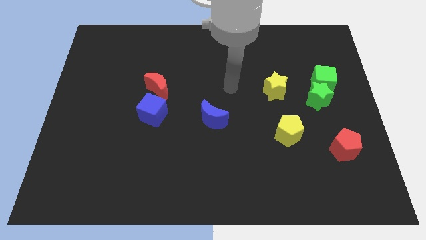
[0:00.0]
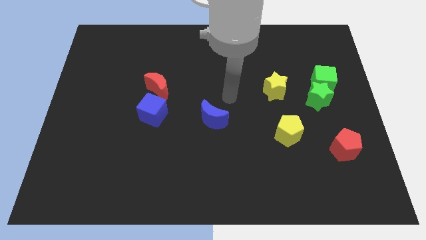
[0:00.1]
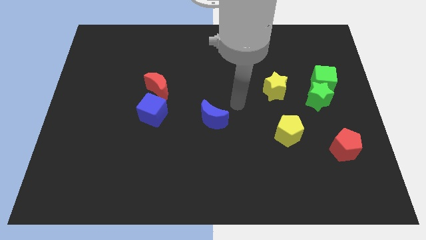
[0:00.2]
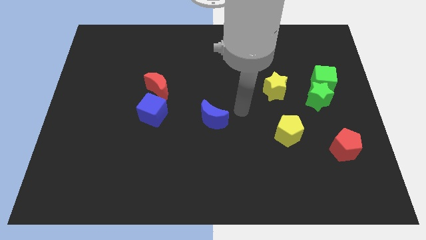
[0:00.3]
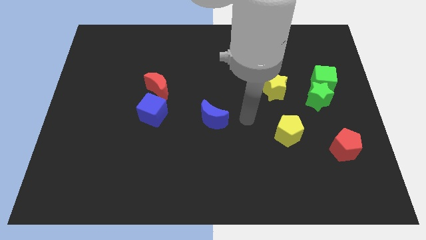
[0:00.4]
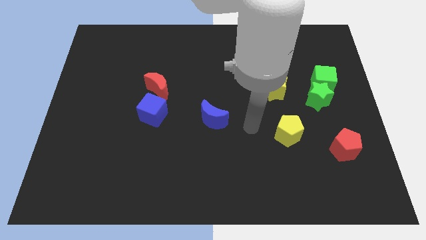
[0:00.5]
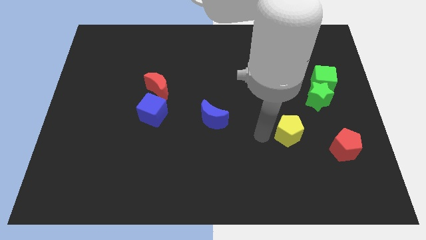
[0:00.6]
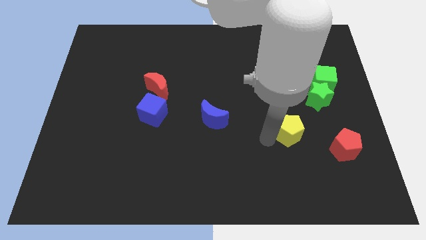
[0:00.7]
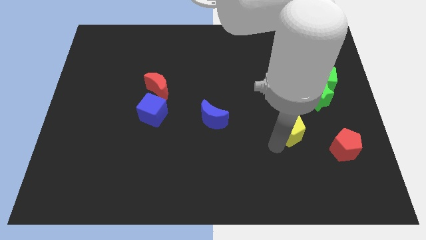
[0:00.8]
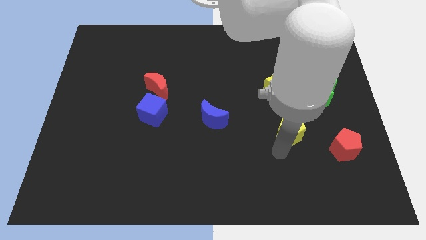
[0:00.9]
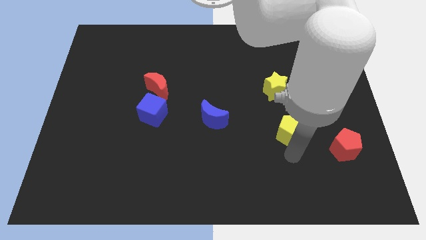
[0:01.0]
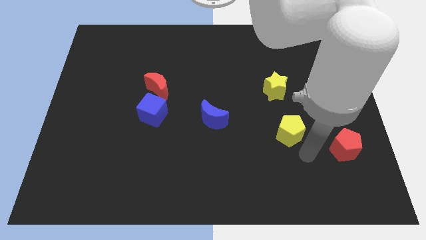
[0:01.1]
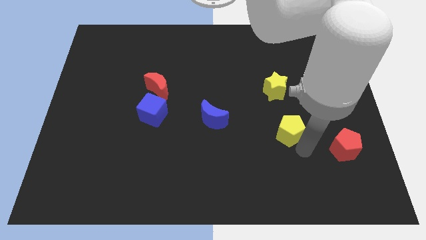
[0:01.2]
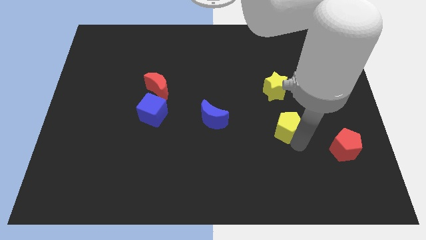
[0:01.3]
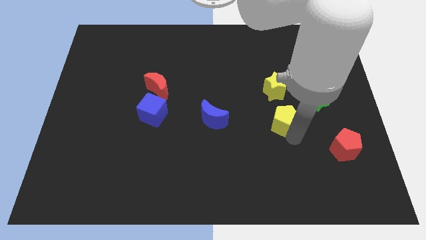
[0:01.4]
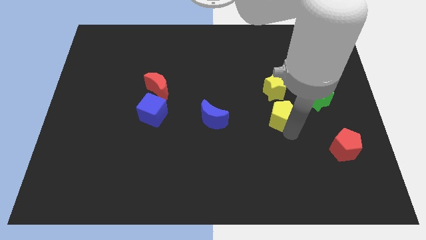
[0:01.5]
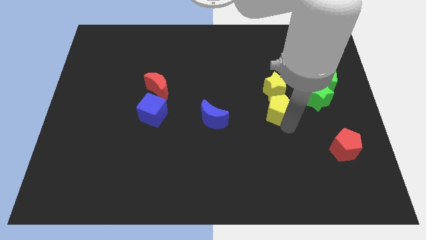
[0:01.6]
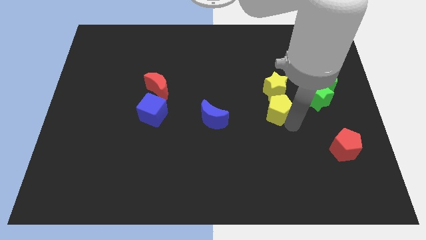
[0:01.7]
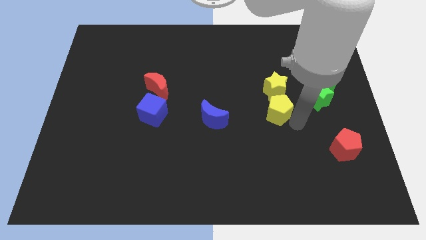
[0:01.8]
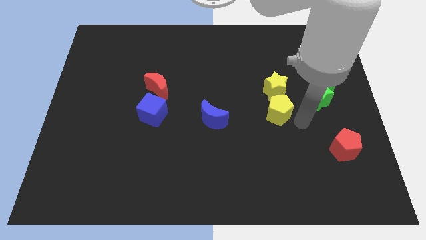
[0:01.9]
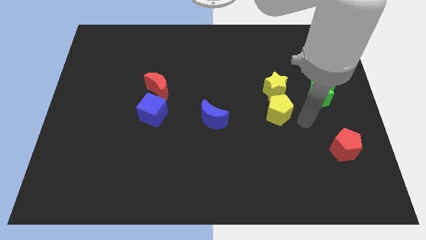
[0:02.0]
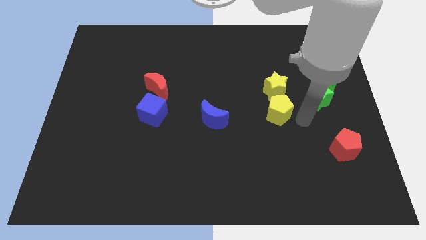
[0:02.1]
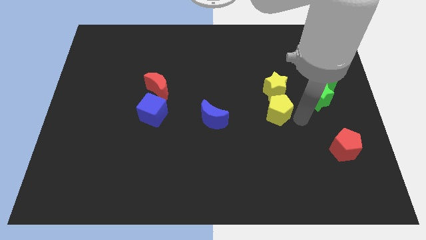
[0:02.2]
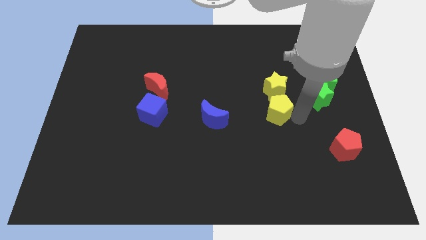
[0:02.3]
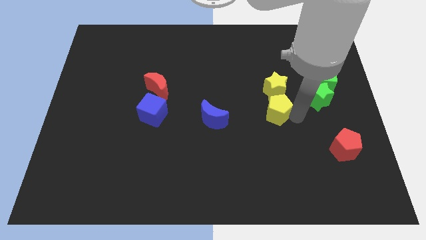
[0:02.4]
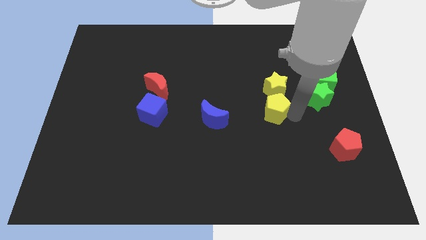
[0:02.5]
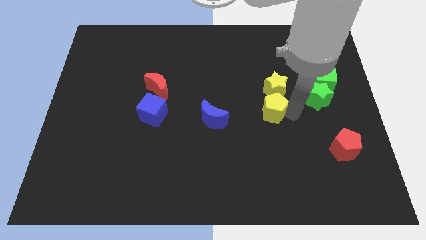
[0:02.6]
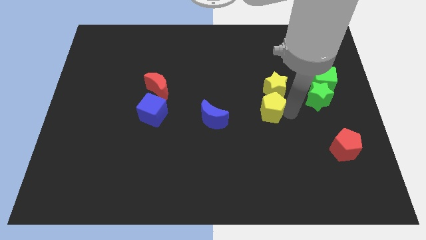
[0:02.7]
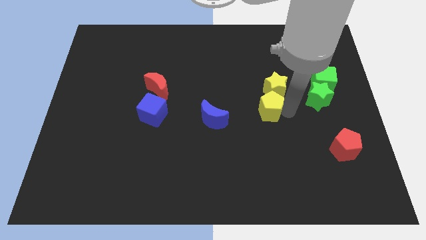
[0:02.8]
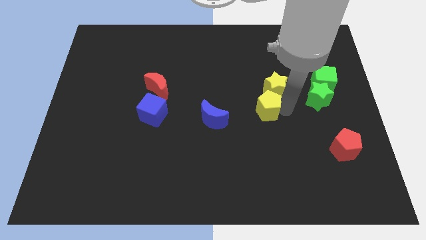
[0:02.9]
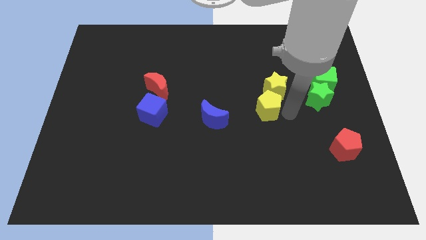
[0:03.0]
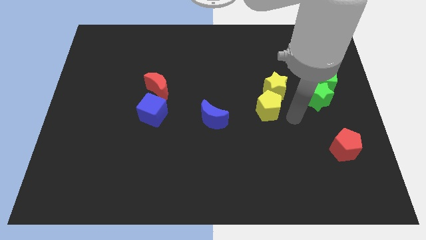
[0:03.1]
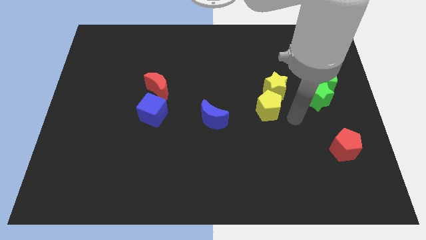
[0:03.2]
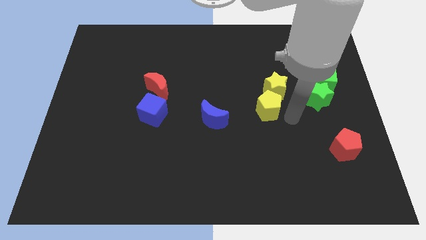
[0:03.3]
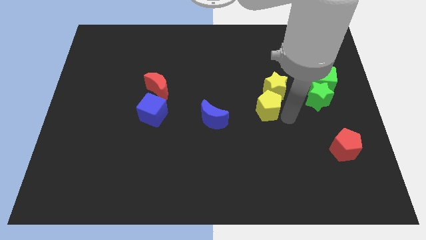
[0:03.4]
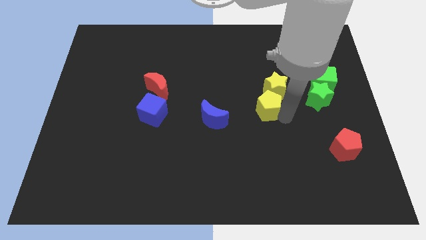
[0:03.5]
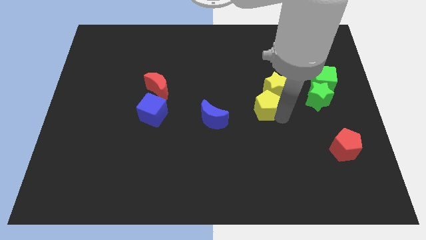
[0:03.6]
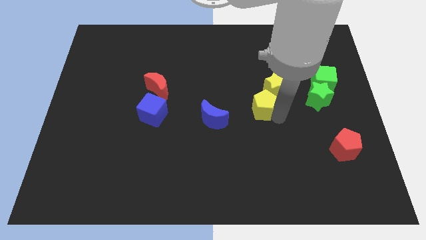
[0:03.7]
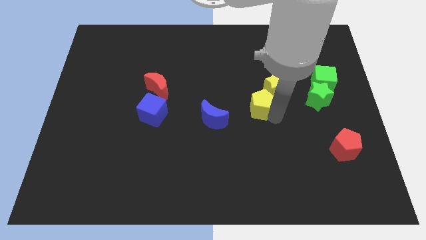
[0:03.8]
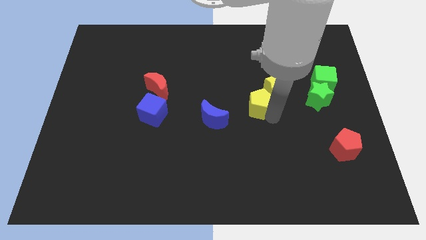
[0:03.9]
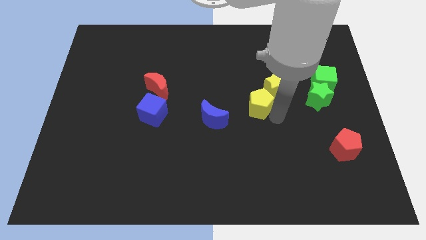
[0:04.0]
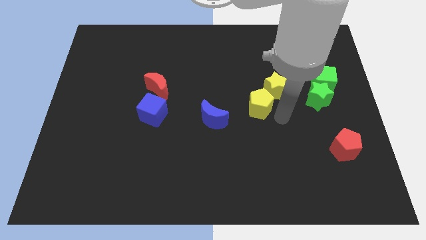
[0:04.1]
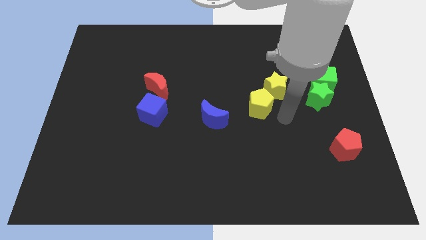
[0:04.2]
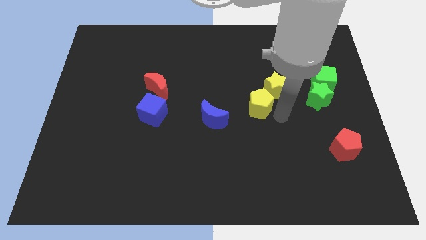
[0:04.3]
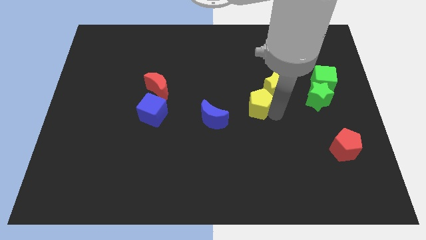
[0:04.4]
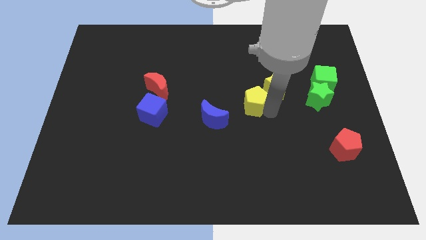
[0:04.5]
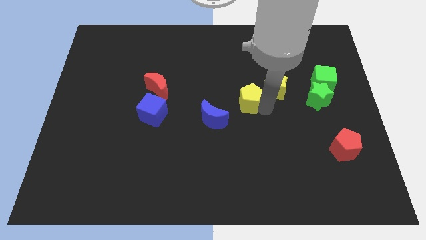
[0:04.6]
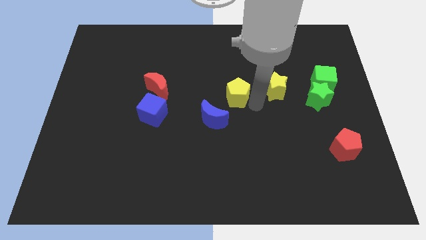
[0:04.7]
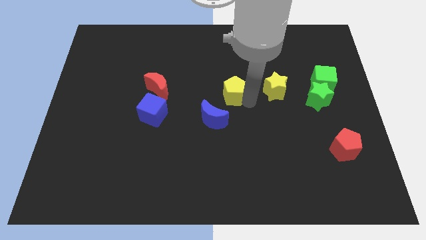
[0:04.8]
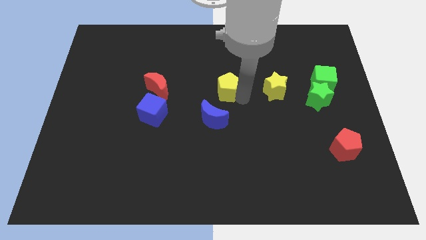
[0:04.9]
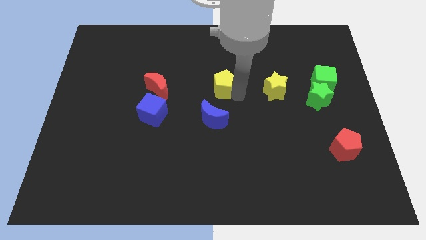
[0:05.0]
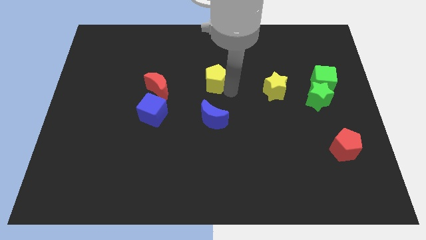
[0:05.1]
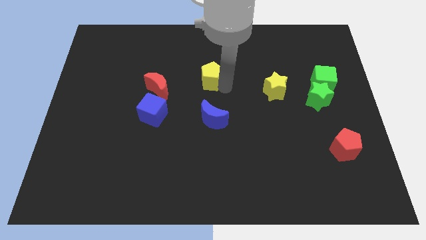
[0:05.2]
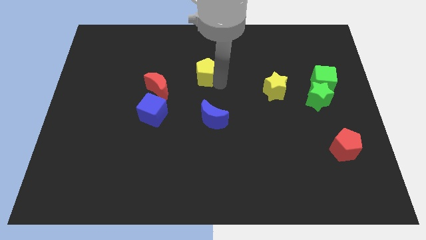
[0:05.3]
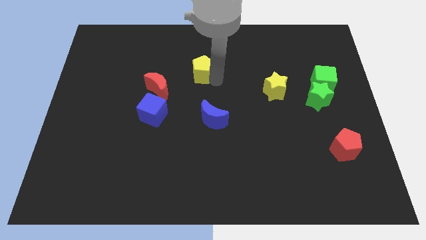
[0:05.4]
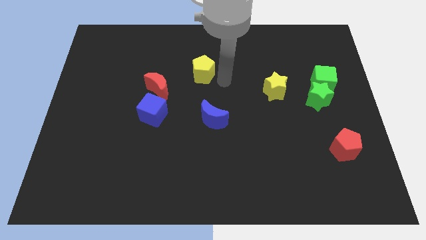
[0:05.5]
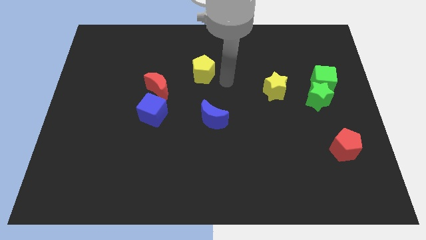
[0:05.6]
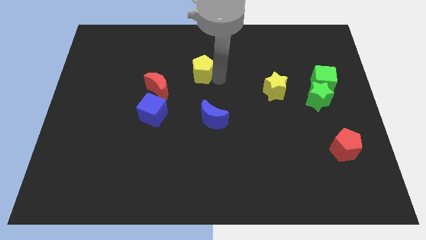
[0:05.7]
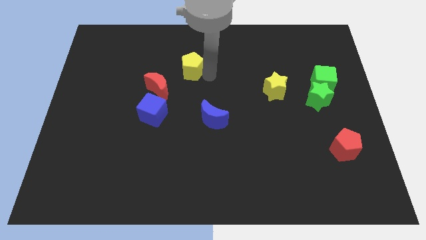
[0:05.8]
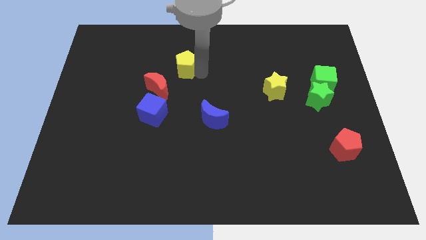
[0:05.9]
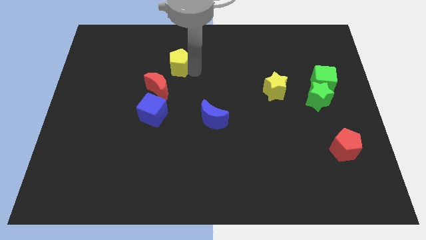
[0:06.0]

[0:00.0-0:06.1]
push the yellow pentagon to the top of the red moon
